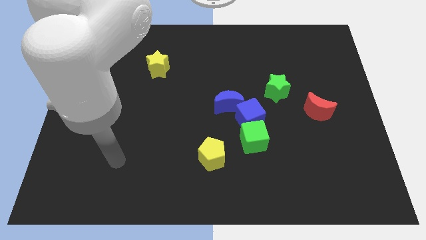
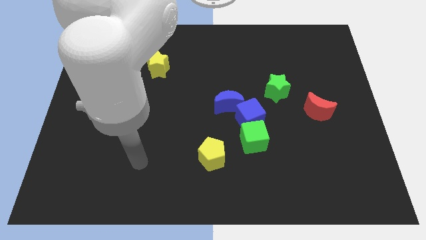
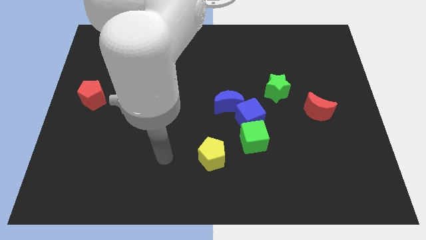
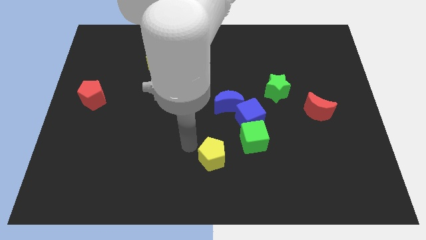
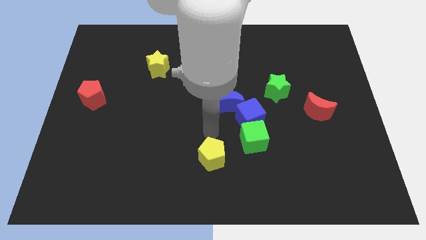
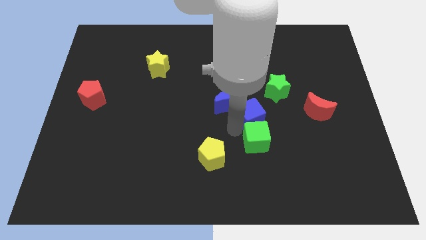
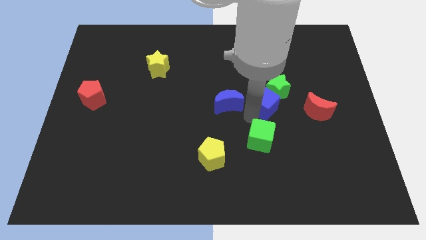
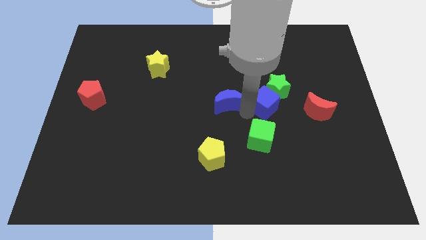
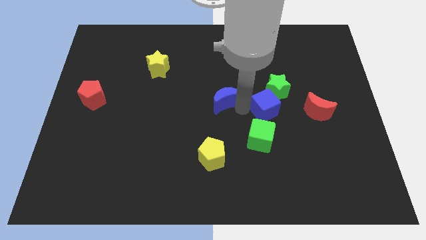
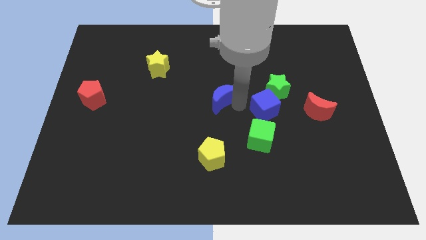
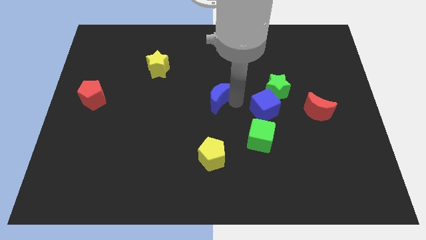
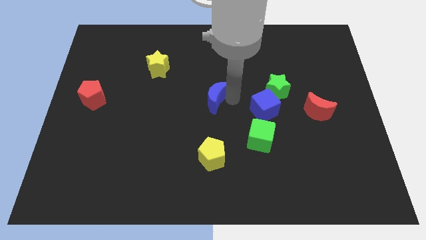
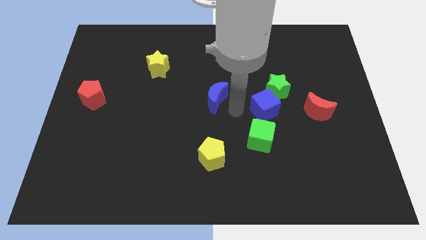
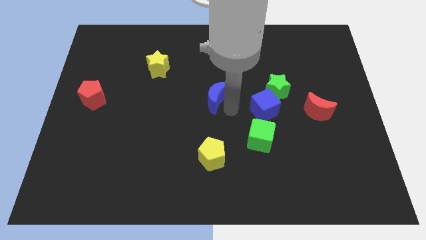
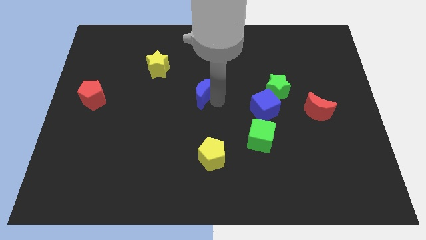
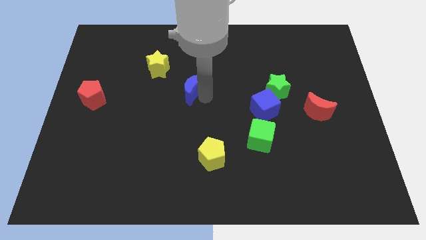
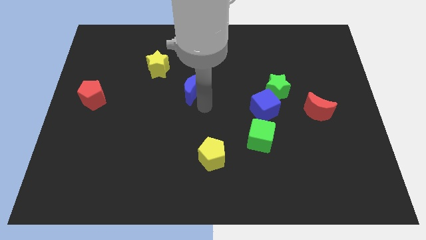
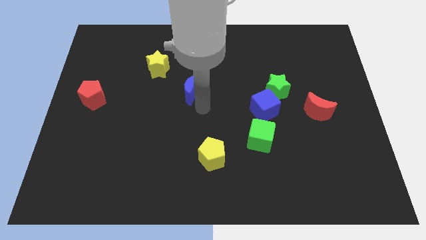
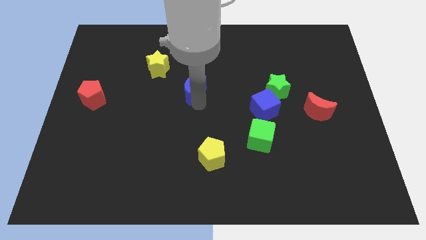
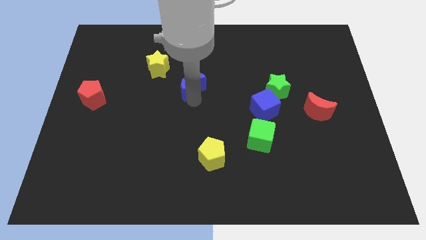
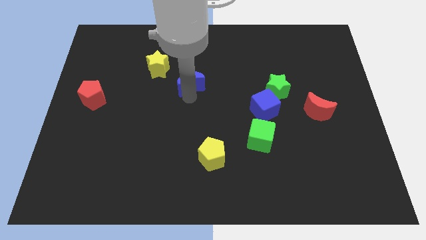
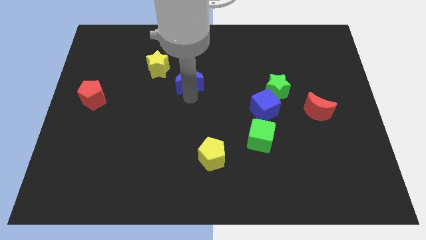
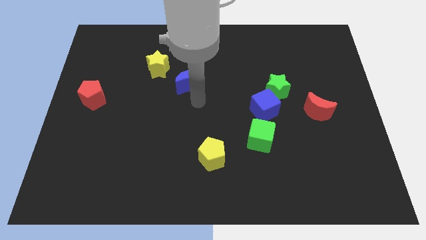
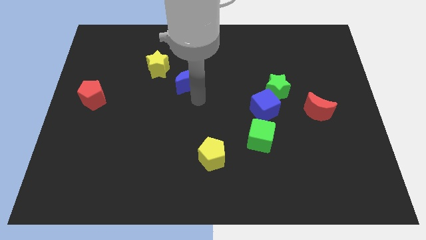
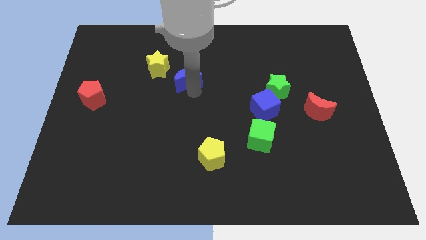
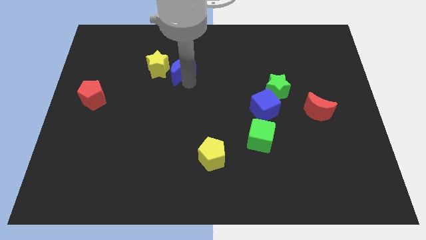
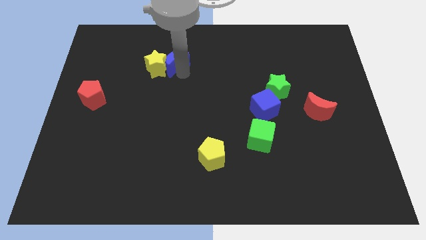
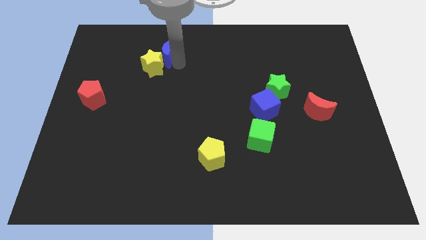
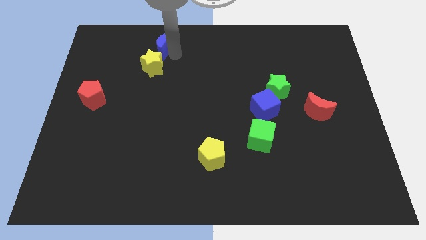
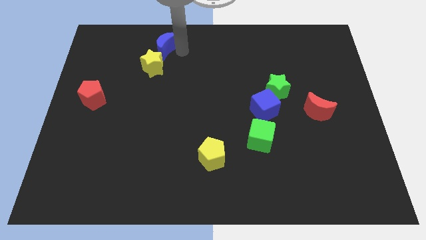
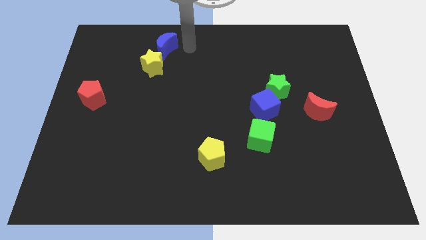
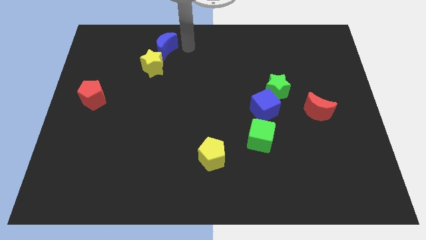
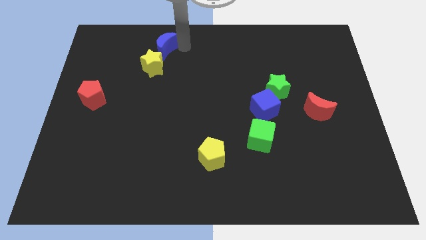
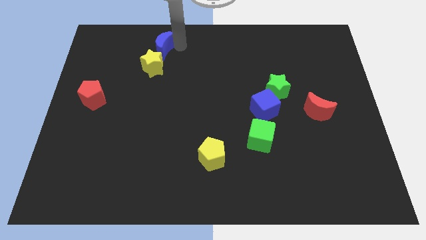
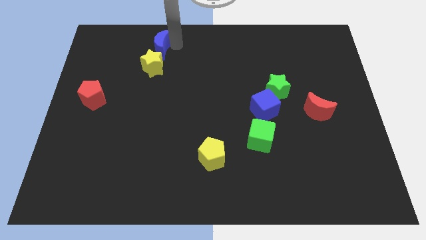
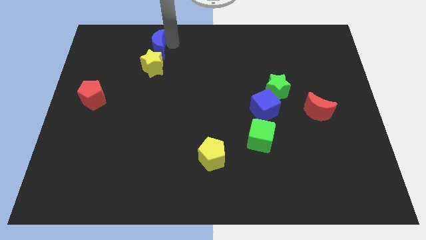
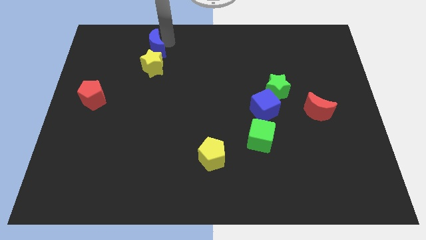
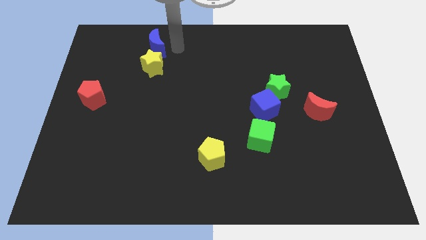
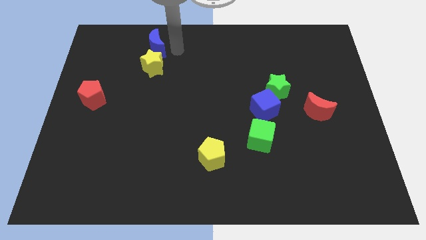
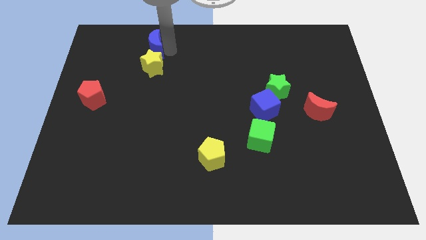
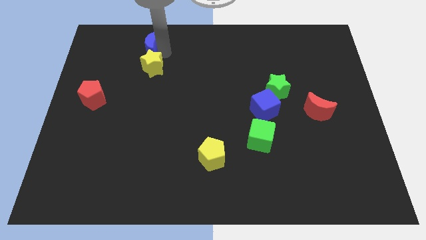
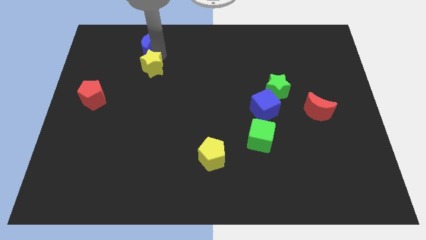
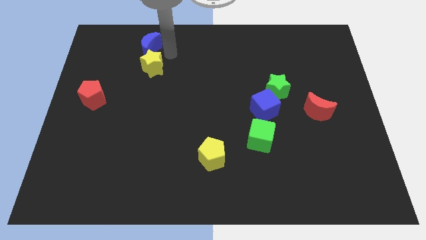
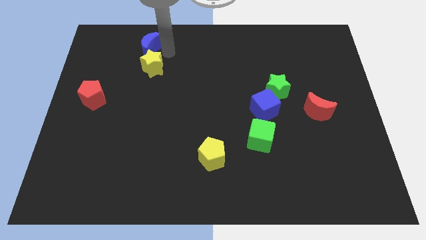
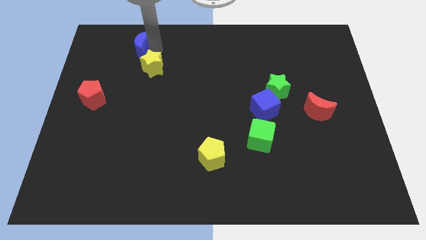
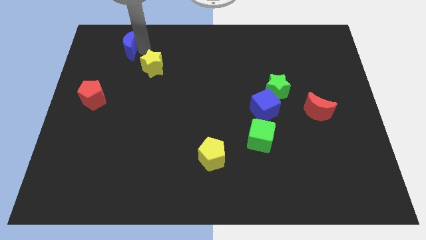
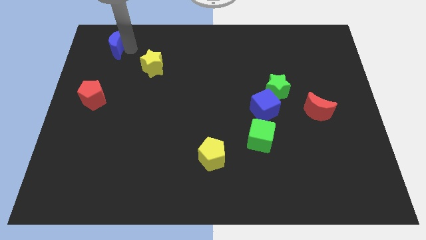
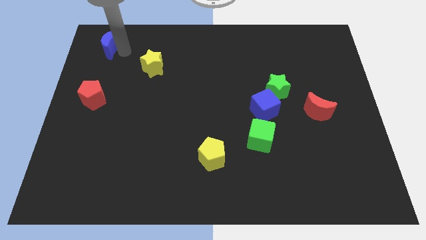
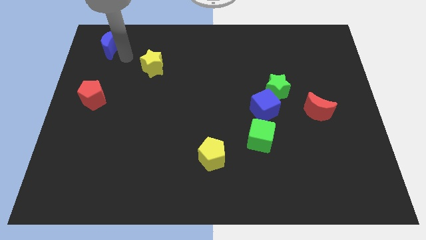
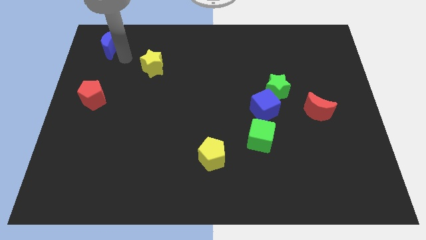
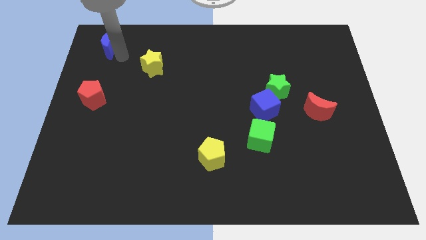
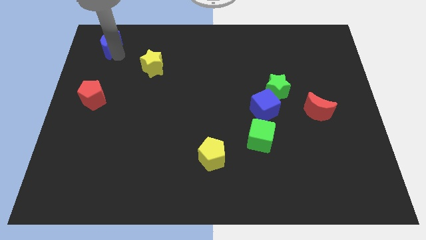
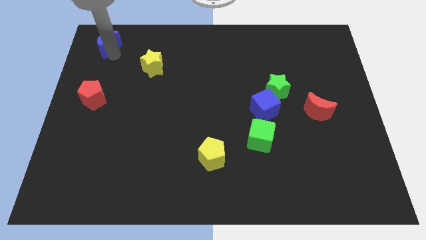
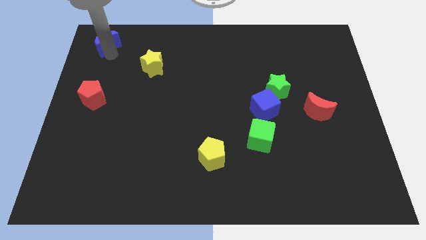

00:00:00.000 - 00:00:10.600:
slide the blue moon to the top left corner

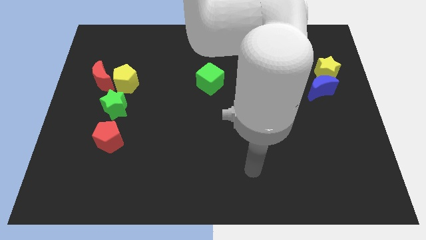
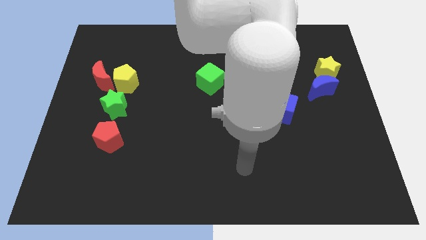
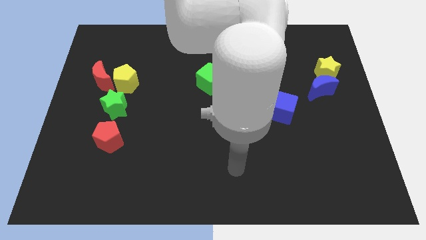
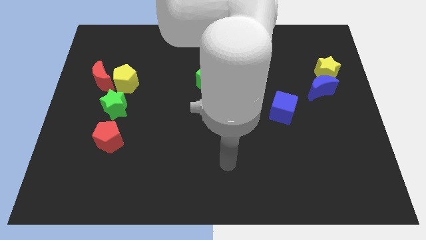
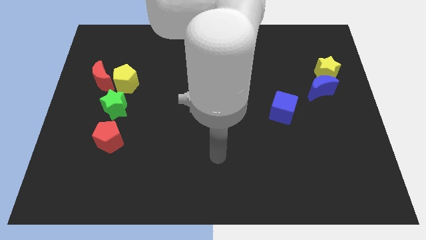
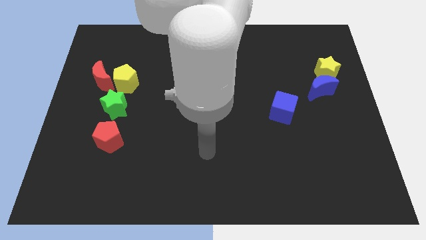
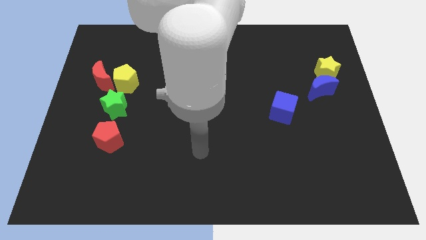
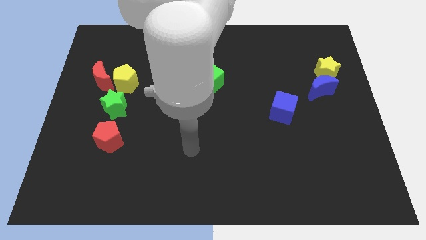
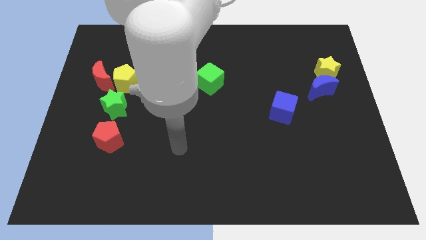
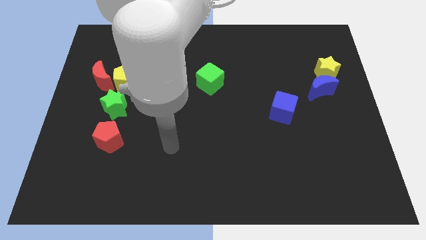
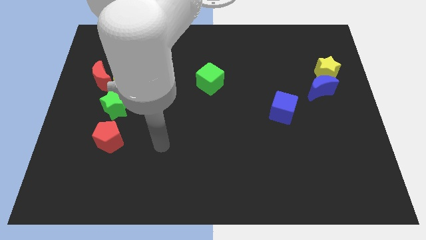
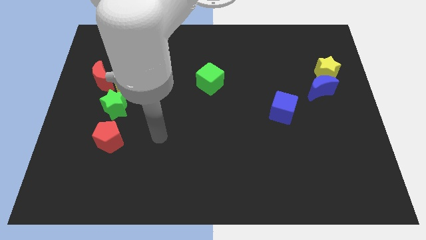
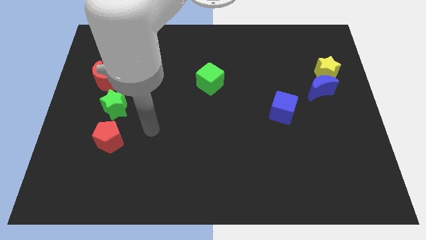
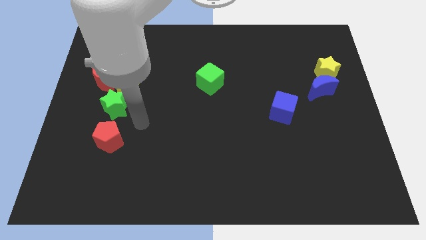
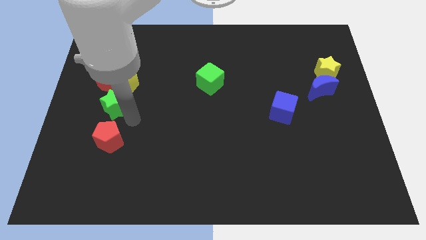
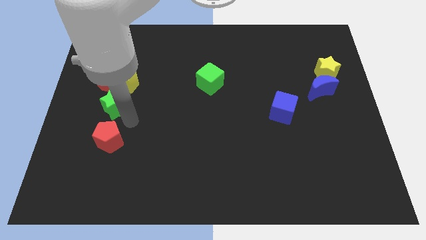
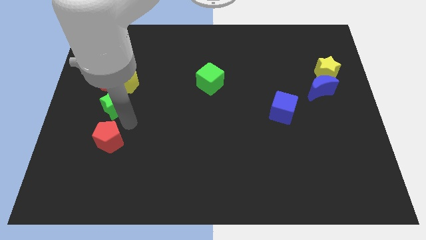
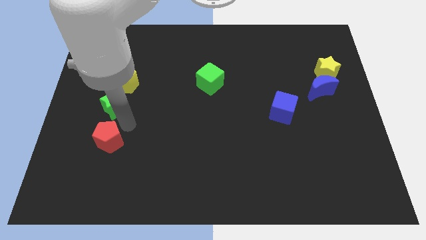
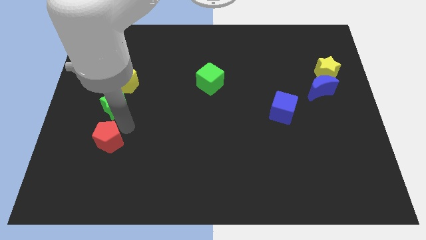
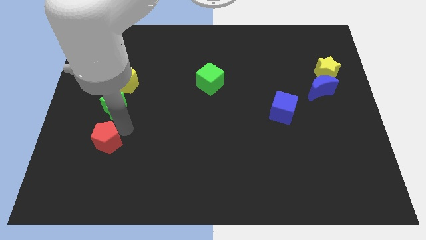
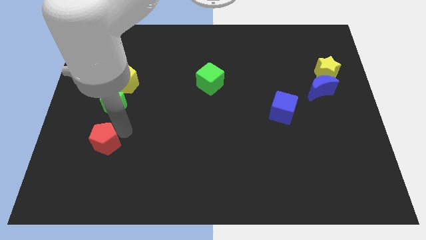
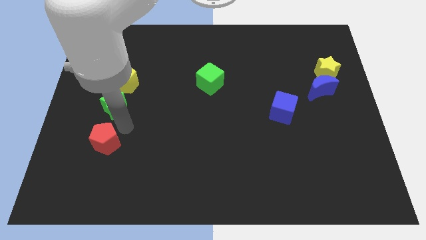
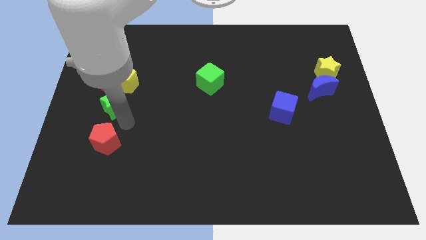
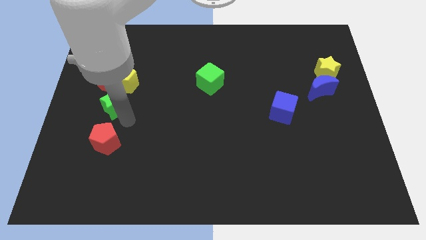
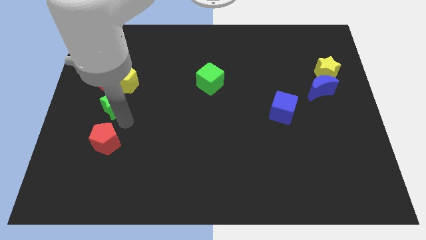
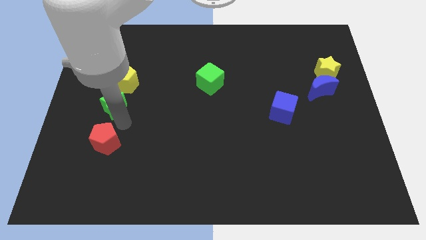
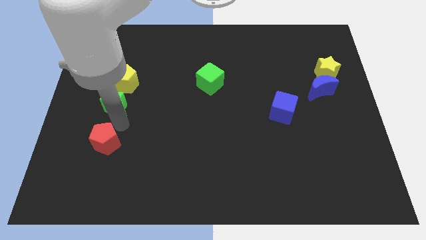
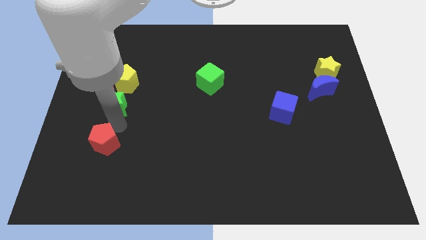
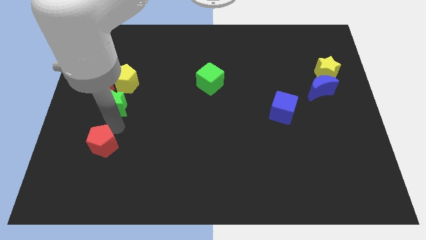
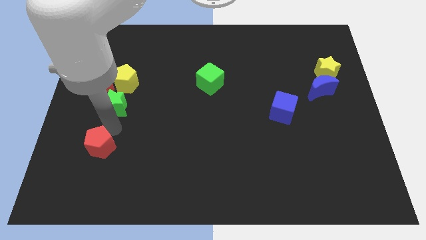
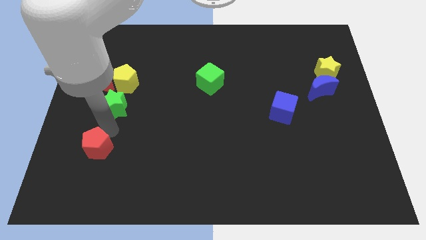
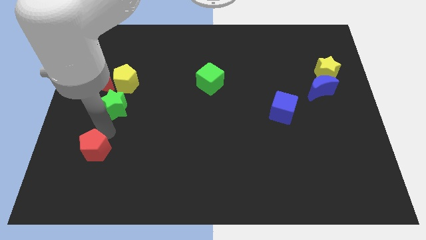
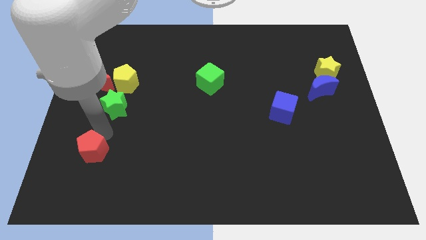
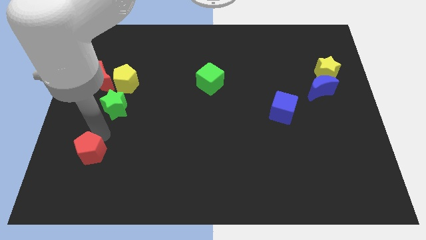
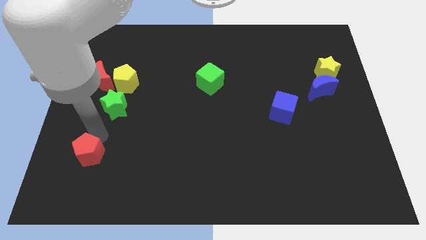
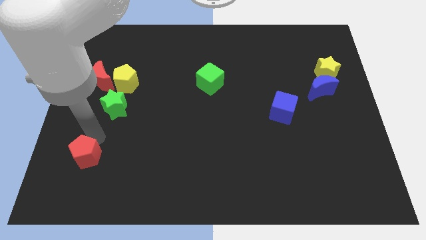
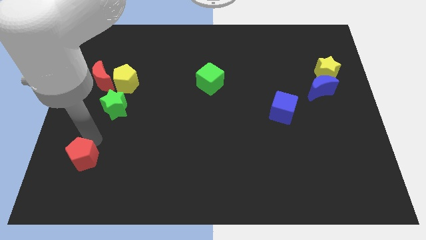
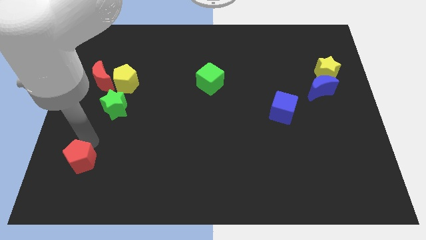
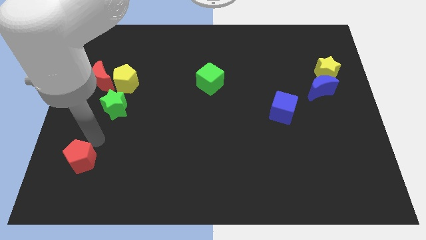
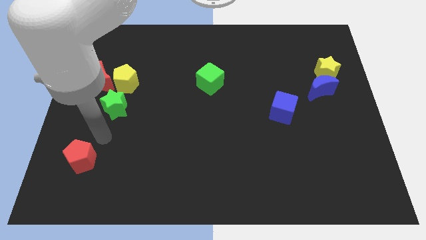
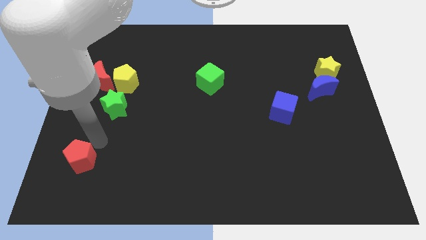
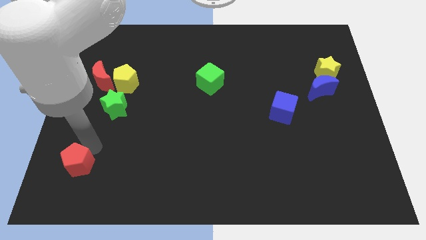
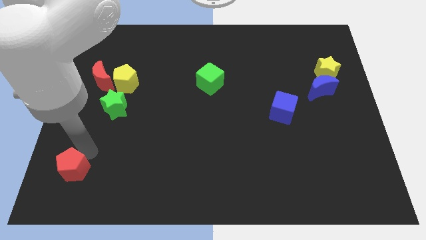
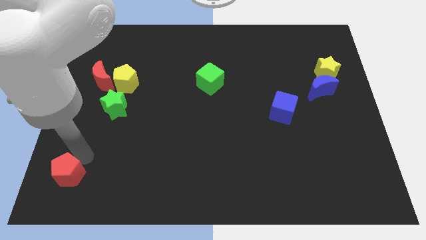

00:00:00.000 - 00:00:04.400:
move the red pentagon to the bottom left of the board
